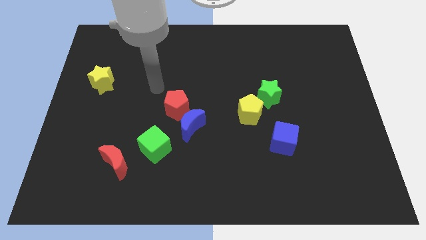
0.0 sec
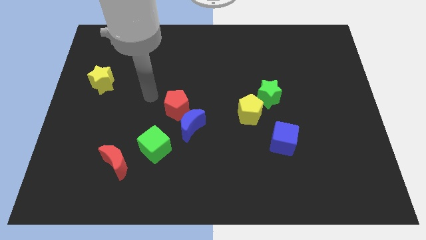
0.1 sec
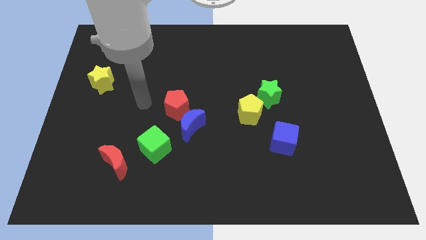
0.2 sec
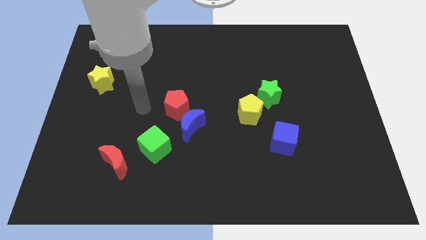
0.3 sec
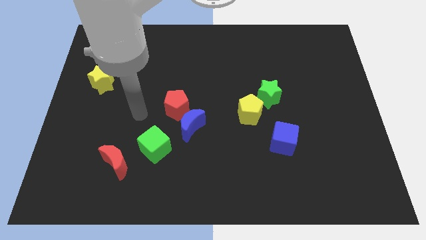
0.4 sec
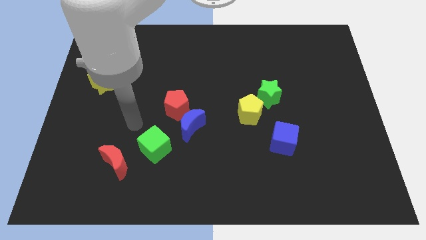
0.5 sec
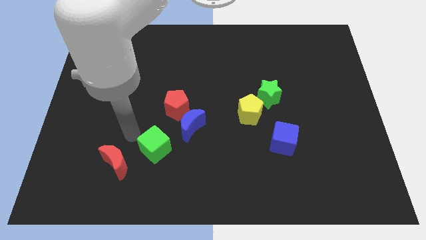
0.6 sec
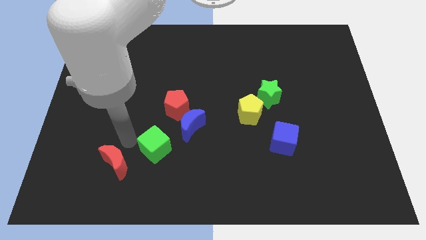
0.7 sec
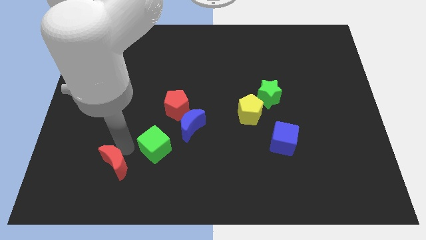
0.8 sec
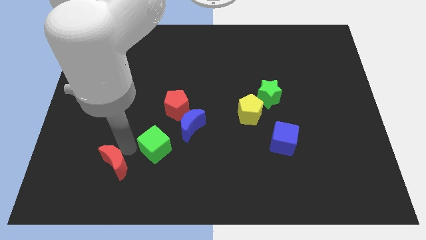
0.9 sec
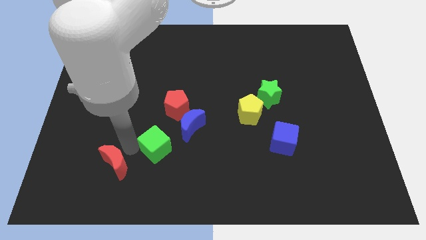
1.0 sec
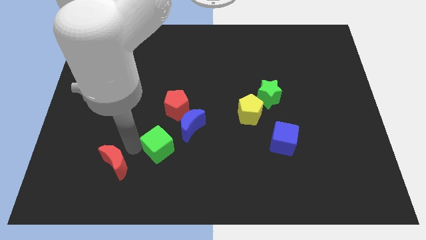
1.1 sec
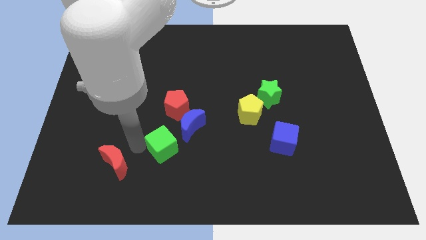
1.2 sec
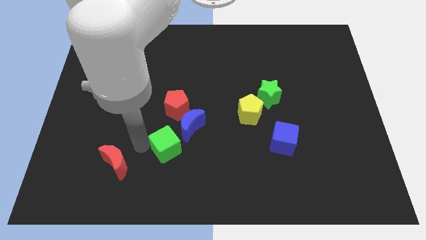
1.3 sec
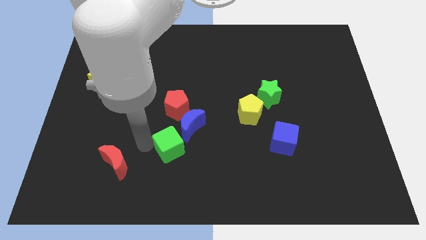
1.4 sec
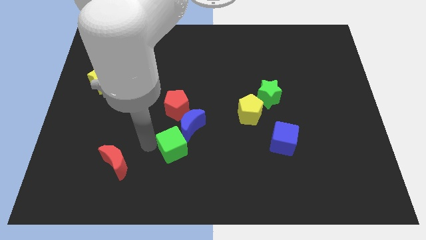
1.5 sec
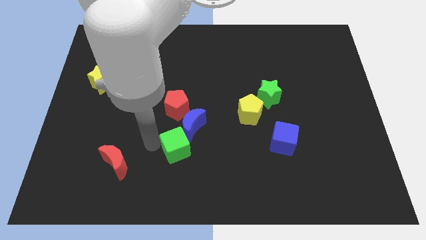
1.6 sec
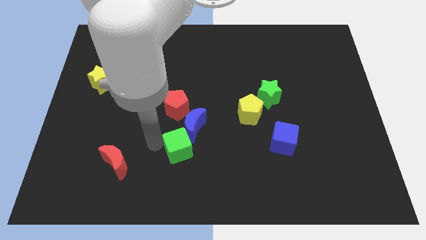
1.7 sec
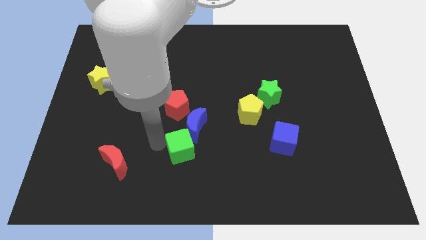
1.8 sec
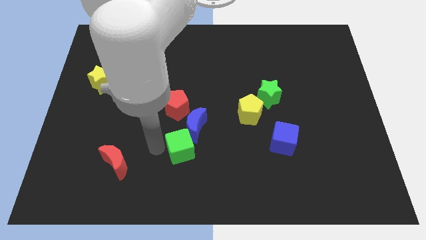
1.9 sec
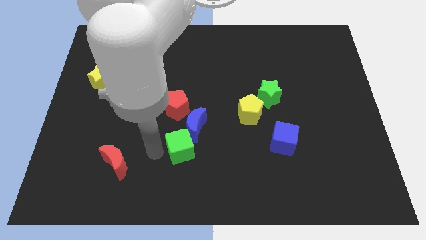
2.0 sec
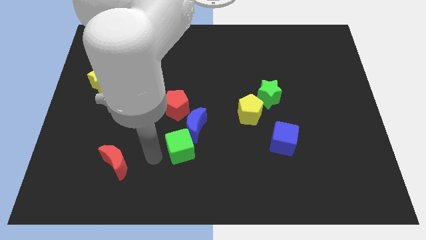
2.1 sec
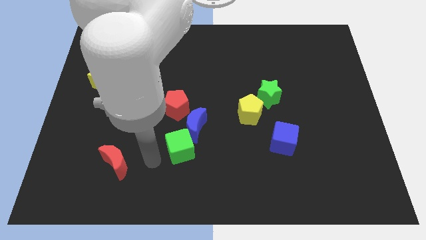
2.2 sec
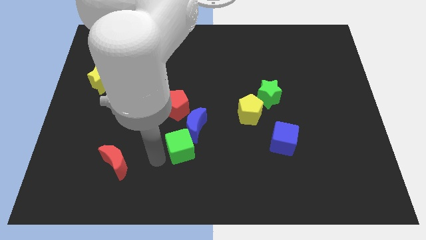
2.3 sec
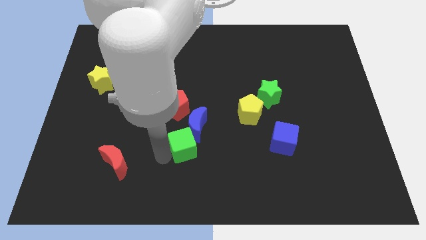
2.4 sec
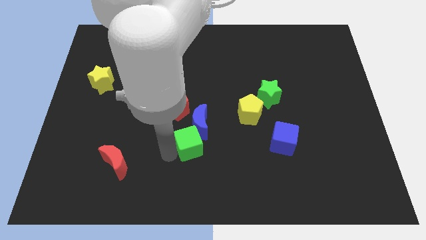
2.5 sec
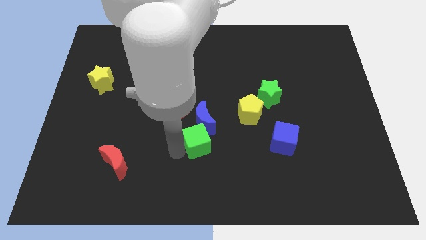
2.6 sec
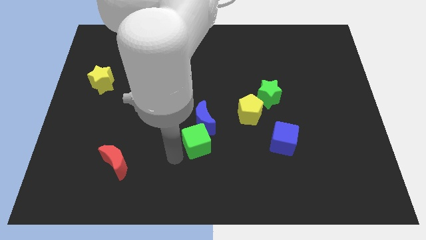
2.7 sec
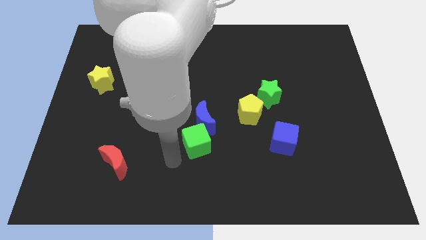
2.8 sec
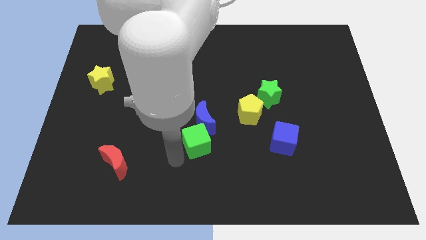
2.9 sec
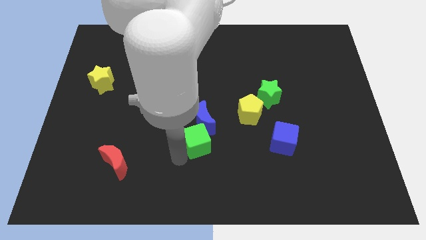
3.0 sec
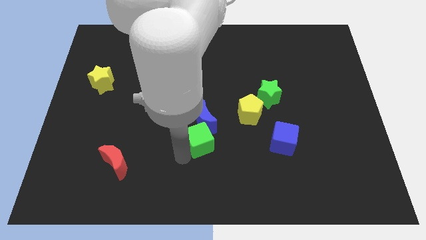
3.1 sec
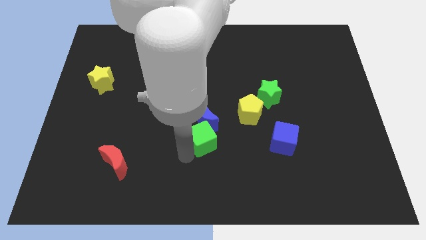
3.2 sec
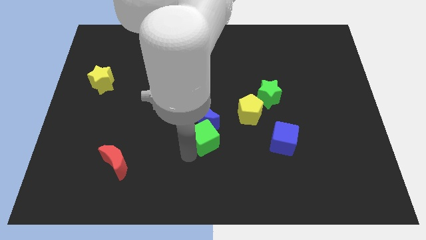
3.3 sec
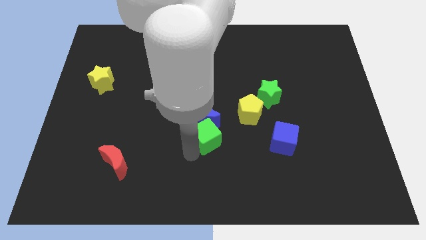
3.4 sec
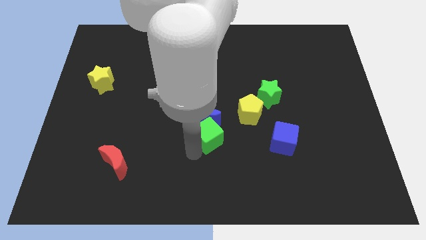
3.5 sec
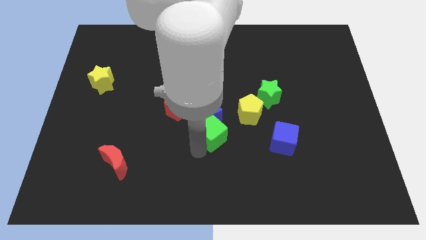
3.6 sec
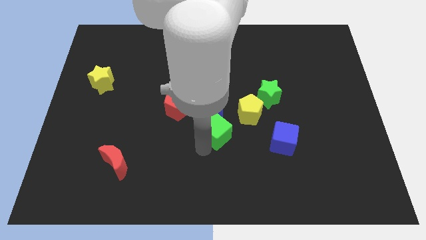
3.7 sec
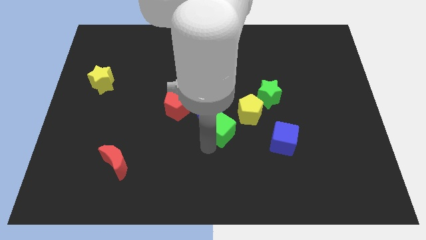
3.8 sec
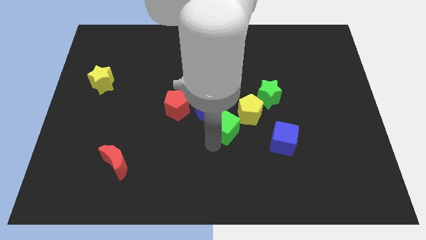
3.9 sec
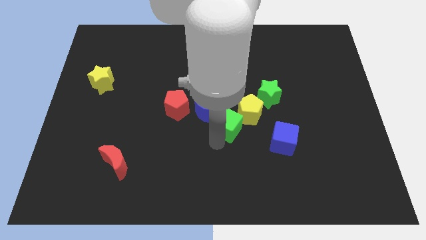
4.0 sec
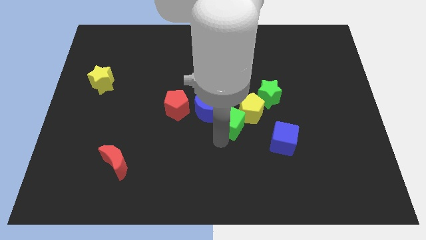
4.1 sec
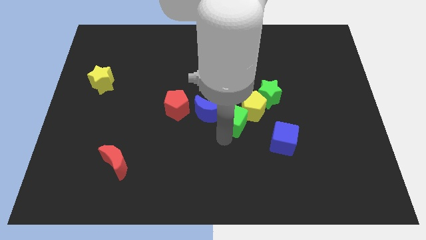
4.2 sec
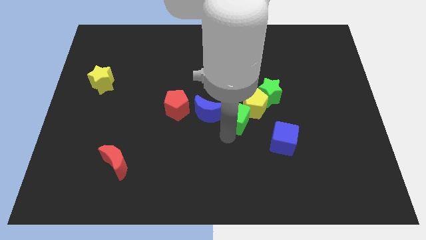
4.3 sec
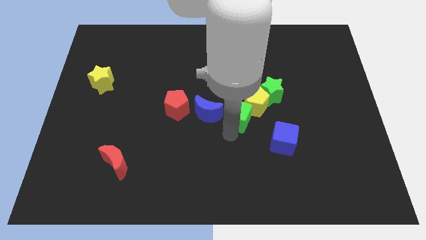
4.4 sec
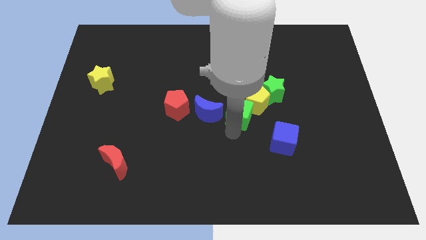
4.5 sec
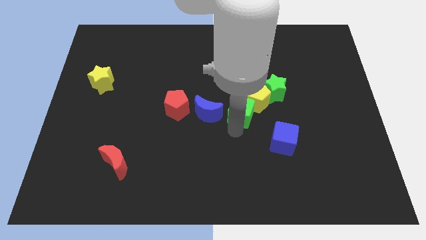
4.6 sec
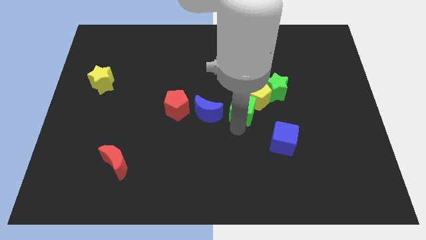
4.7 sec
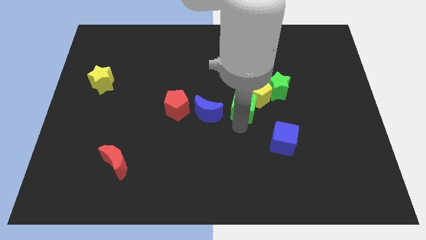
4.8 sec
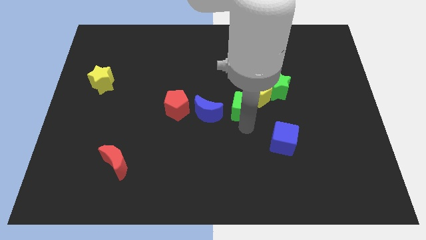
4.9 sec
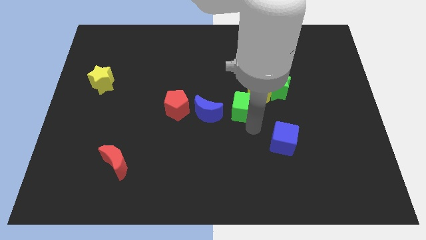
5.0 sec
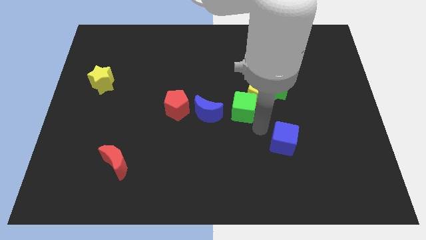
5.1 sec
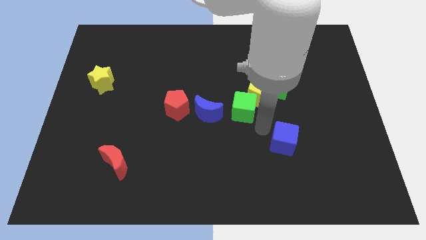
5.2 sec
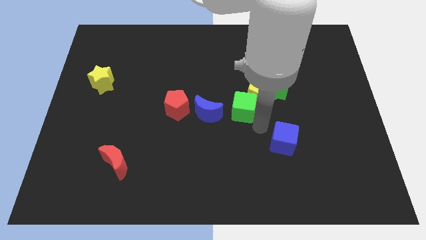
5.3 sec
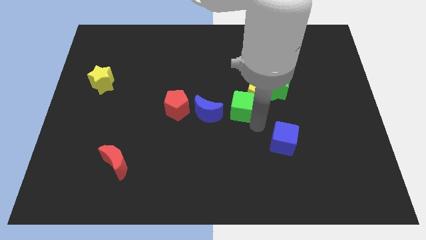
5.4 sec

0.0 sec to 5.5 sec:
move the green cube to the top right of the blue moon

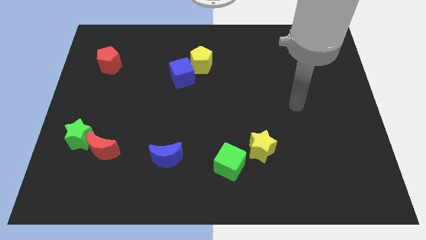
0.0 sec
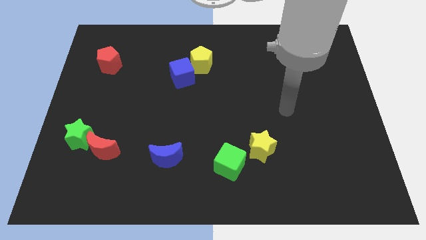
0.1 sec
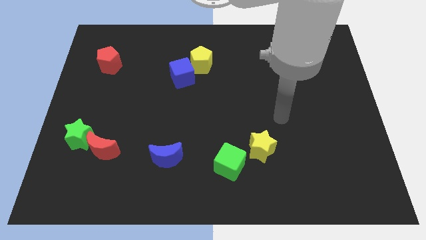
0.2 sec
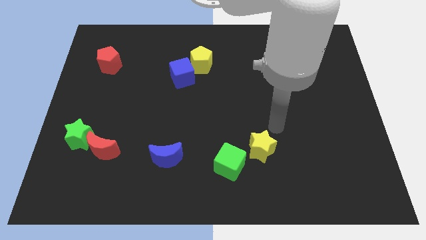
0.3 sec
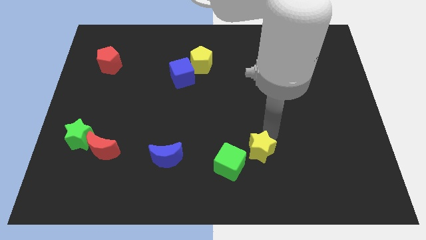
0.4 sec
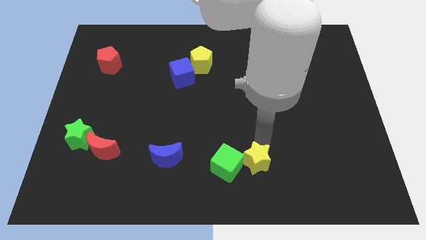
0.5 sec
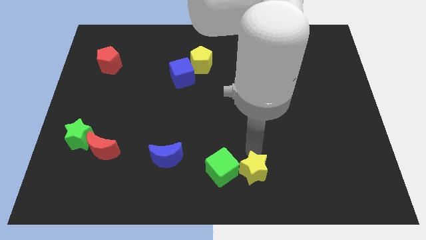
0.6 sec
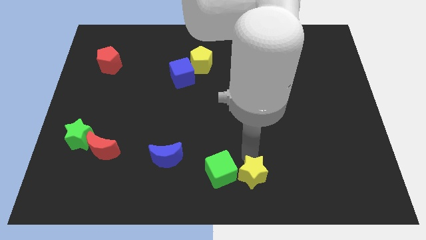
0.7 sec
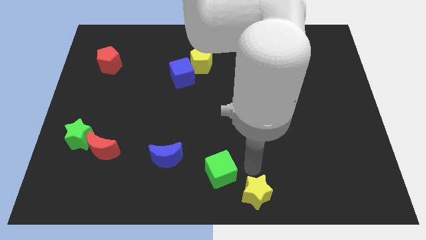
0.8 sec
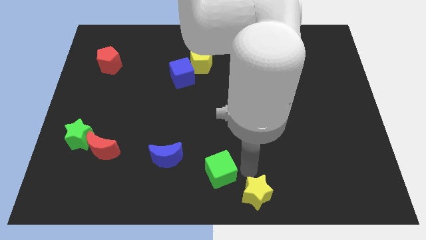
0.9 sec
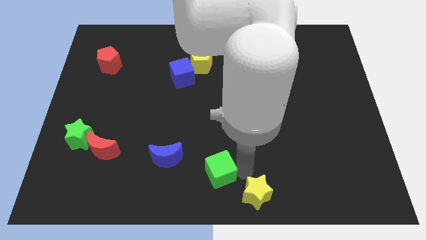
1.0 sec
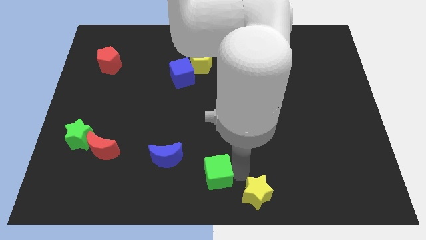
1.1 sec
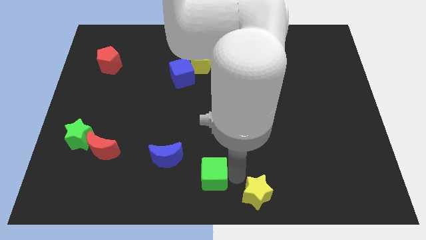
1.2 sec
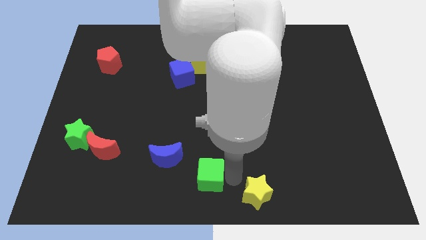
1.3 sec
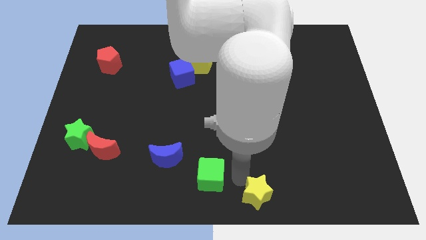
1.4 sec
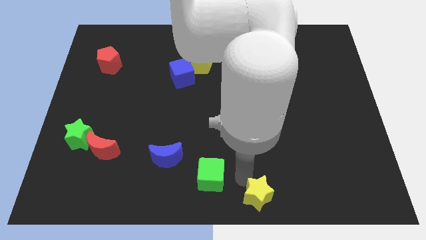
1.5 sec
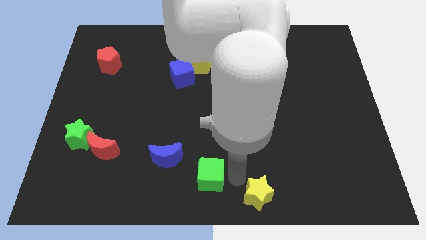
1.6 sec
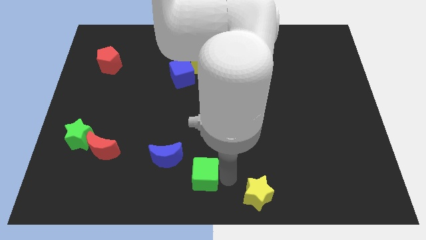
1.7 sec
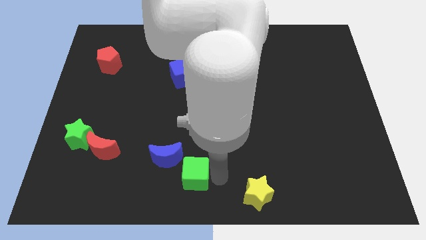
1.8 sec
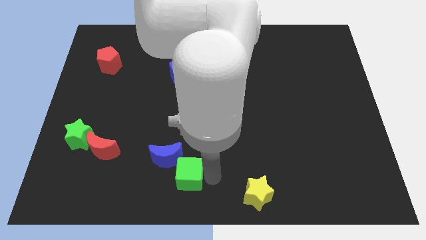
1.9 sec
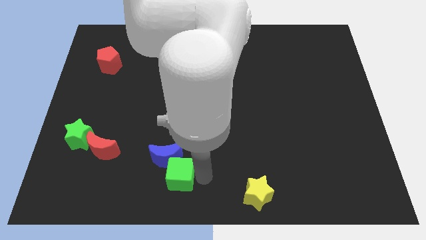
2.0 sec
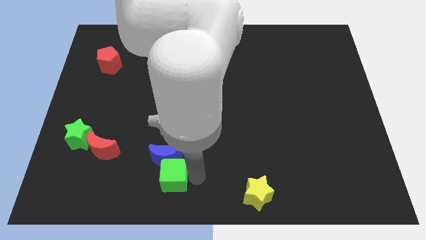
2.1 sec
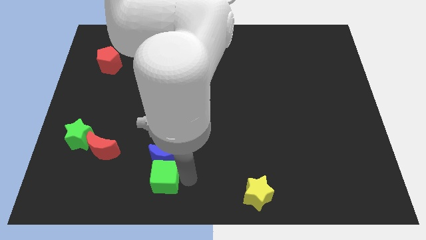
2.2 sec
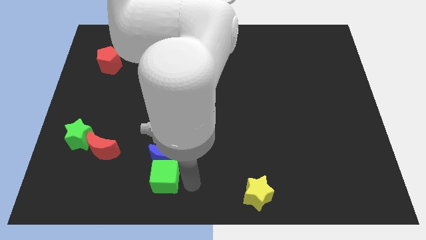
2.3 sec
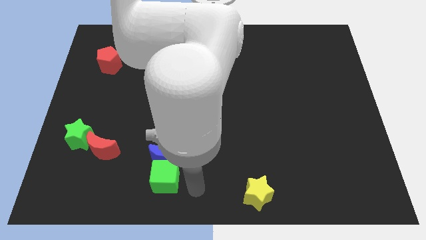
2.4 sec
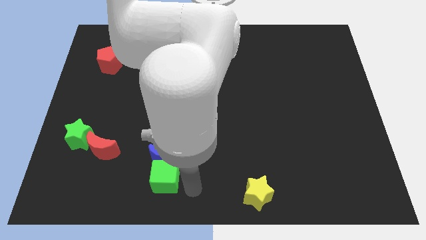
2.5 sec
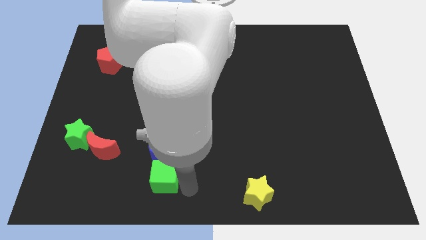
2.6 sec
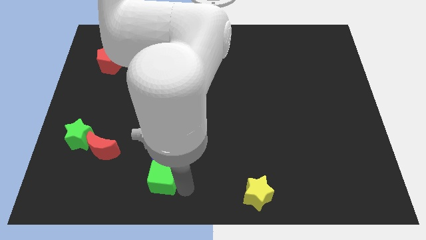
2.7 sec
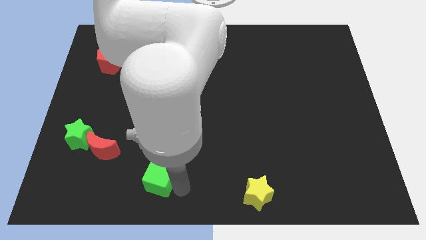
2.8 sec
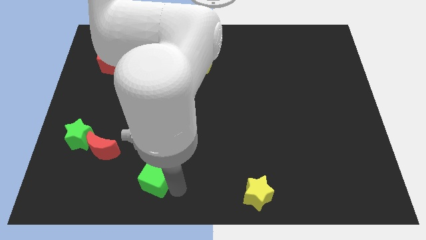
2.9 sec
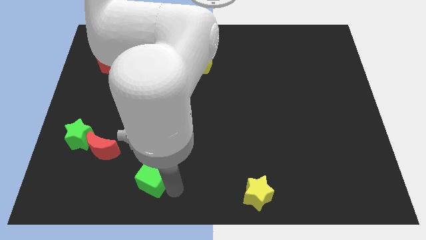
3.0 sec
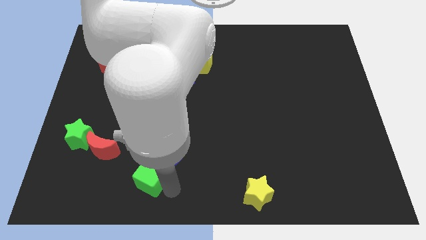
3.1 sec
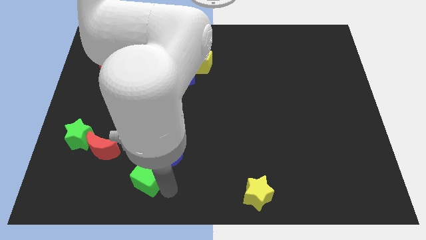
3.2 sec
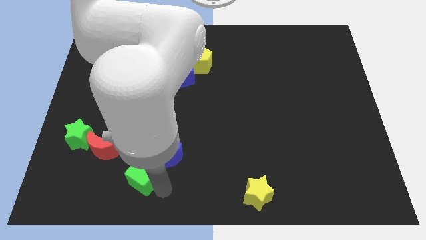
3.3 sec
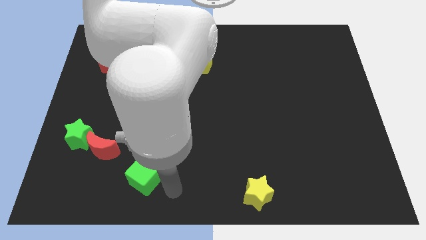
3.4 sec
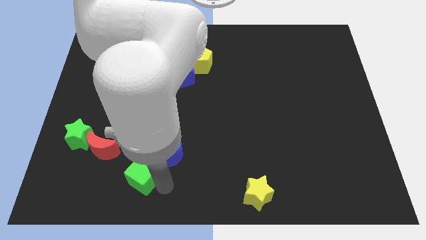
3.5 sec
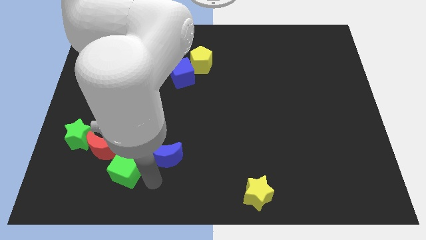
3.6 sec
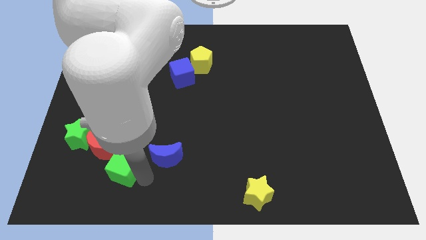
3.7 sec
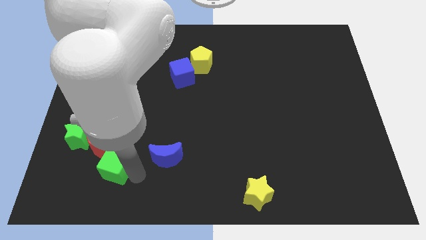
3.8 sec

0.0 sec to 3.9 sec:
move the green cube to the bottom right of the green star
